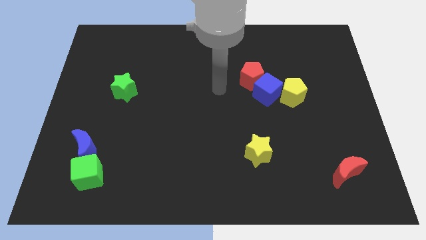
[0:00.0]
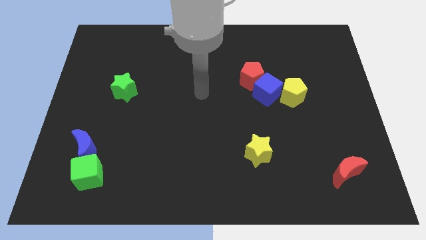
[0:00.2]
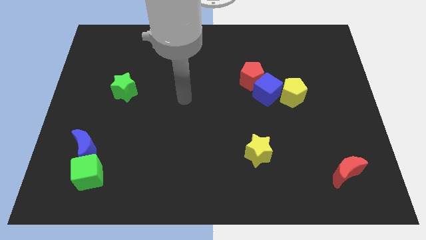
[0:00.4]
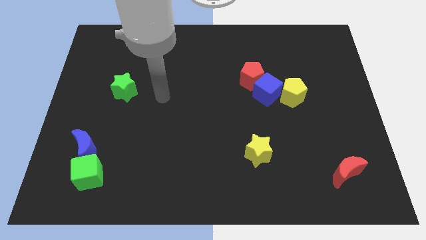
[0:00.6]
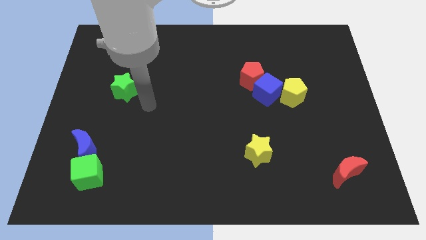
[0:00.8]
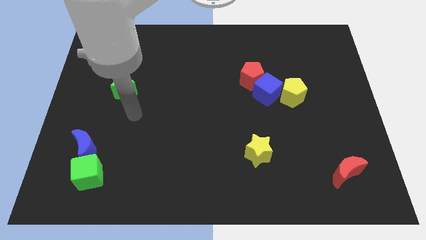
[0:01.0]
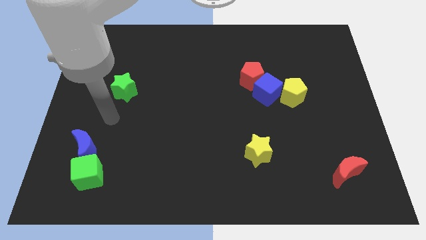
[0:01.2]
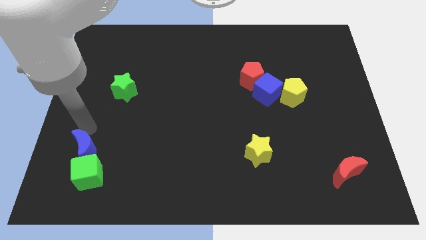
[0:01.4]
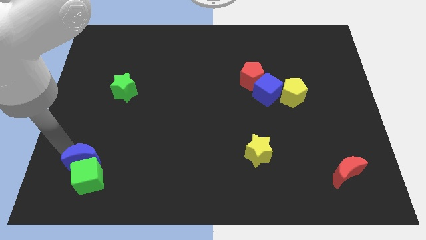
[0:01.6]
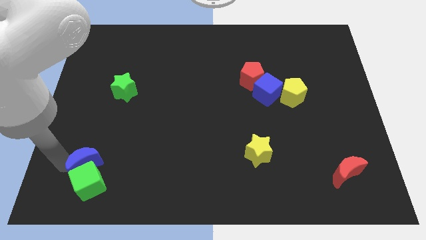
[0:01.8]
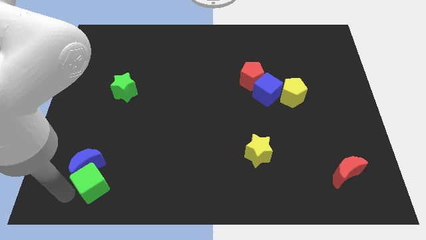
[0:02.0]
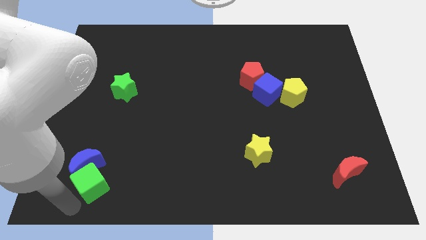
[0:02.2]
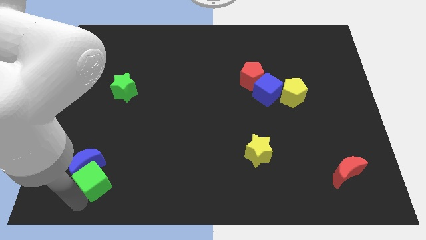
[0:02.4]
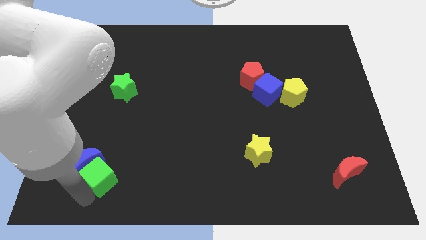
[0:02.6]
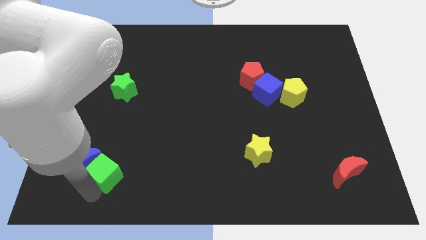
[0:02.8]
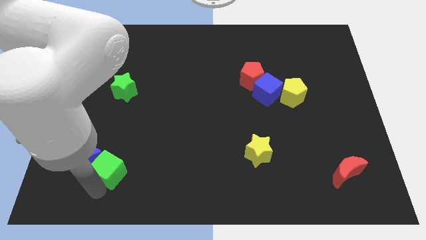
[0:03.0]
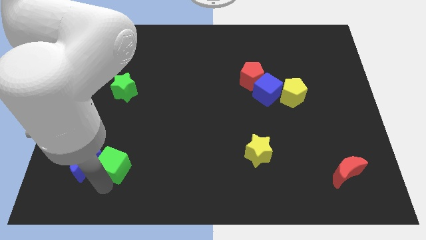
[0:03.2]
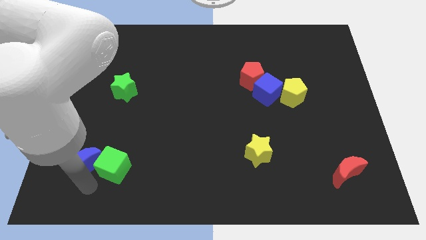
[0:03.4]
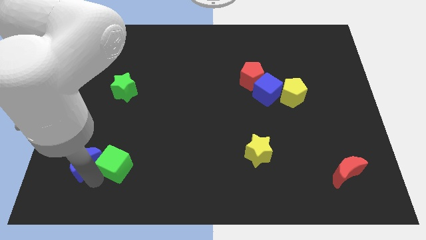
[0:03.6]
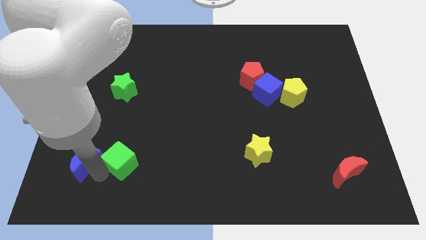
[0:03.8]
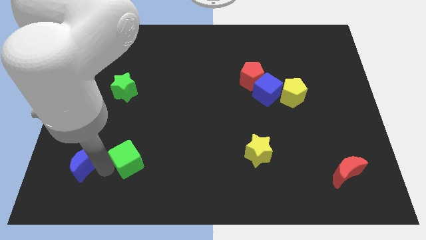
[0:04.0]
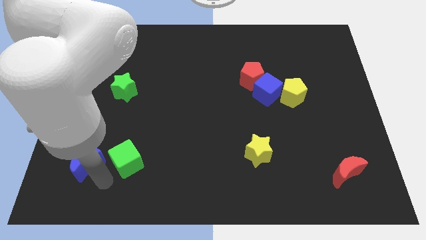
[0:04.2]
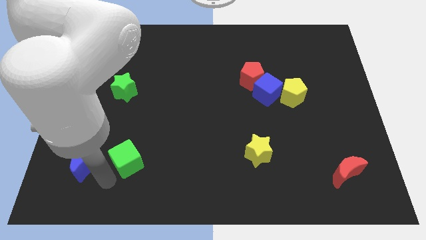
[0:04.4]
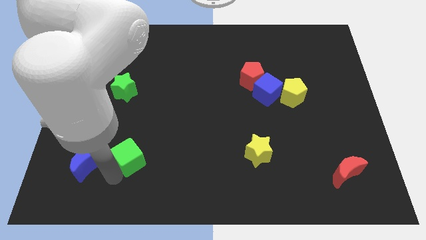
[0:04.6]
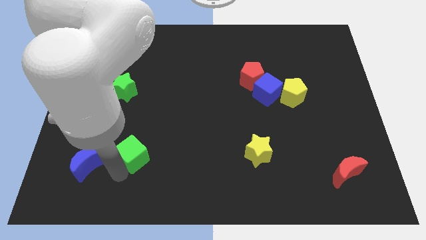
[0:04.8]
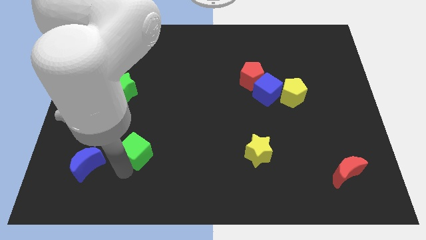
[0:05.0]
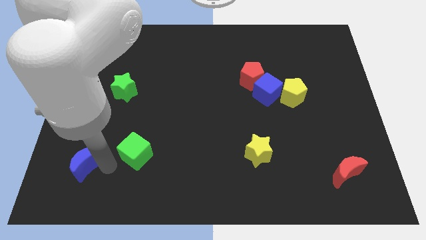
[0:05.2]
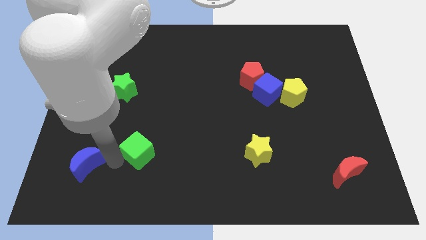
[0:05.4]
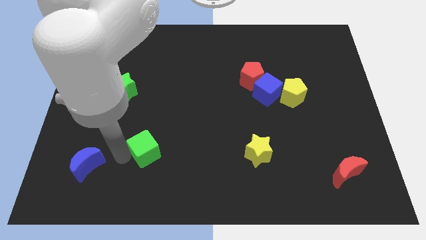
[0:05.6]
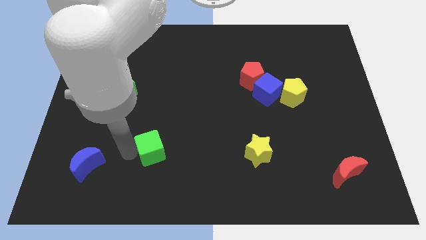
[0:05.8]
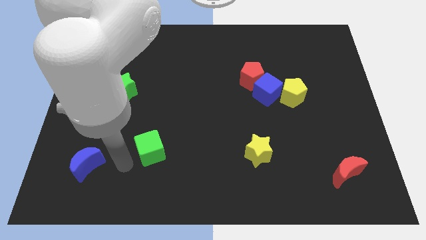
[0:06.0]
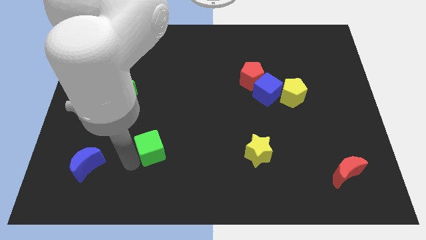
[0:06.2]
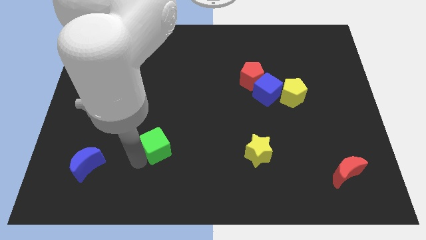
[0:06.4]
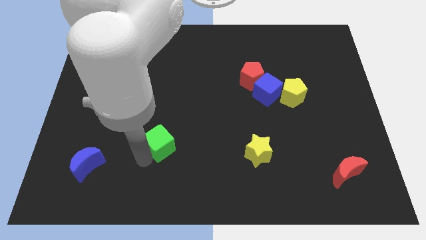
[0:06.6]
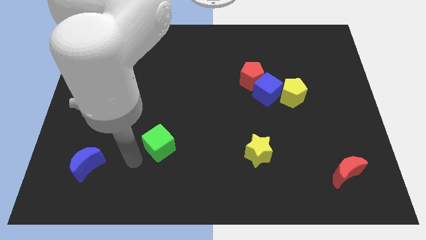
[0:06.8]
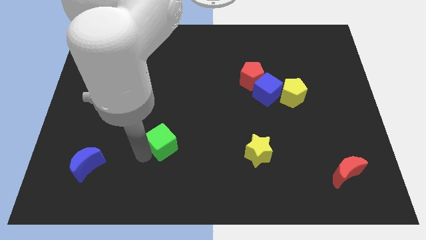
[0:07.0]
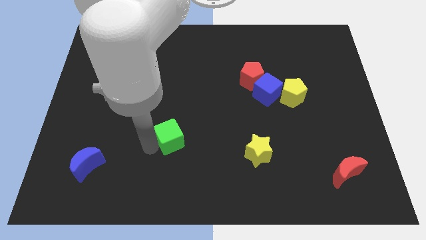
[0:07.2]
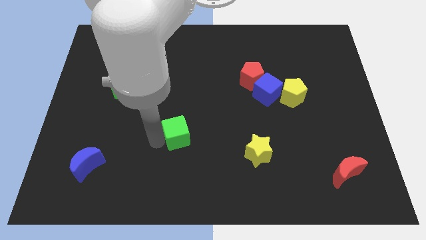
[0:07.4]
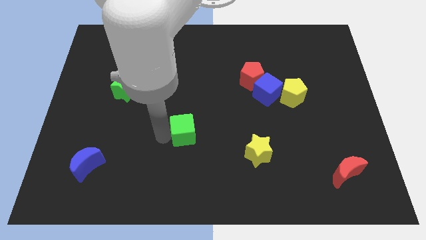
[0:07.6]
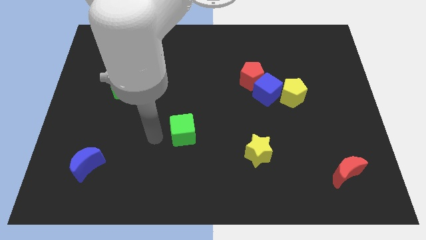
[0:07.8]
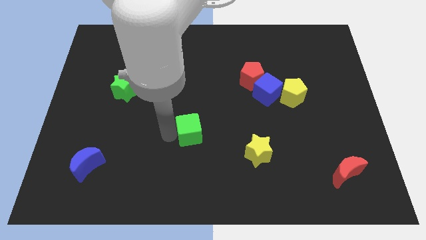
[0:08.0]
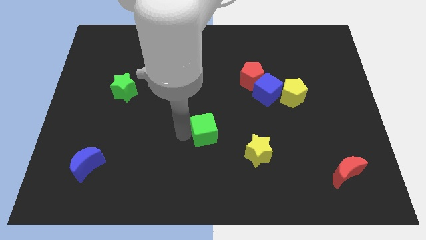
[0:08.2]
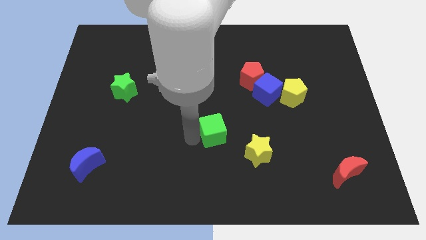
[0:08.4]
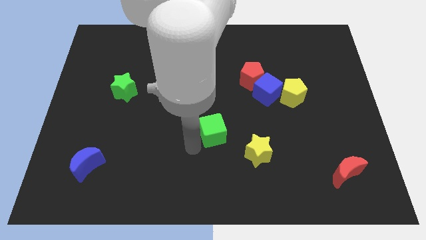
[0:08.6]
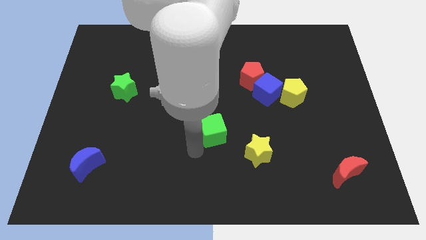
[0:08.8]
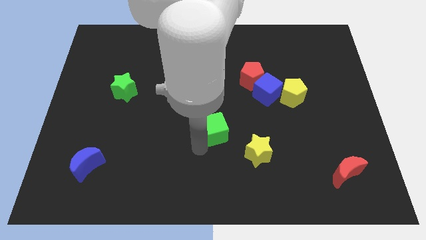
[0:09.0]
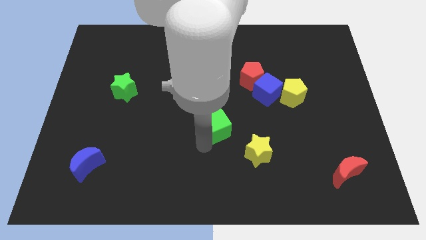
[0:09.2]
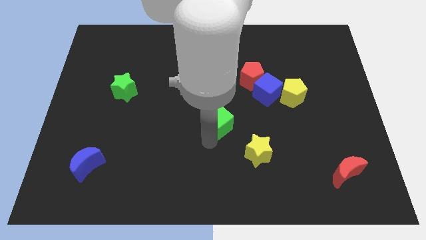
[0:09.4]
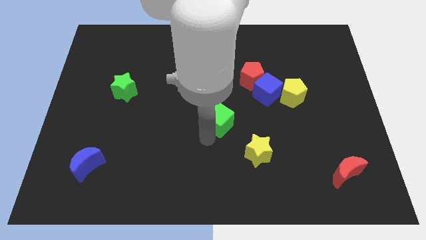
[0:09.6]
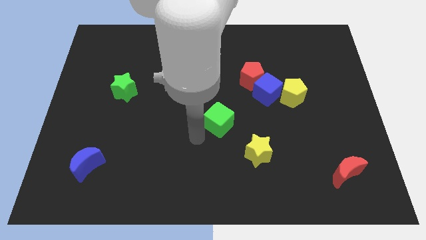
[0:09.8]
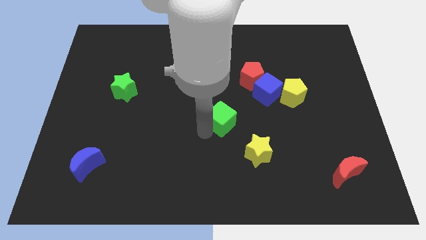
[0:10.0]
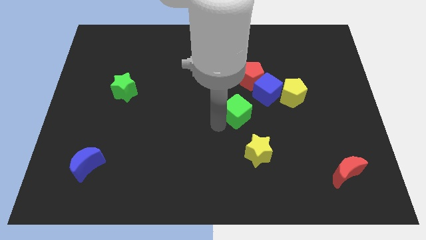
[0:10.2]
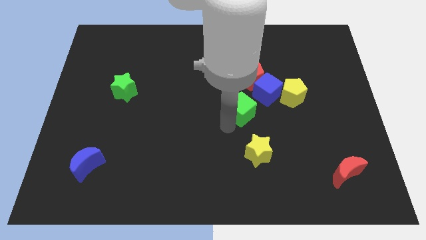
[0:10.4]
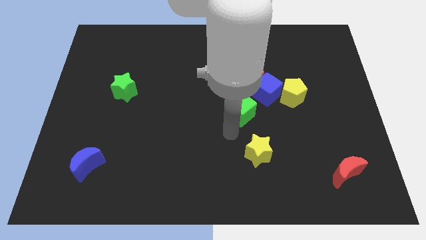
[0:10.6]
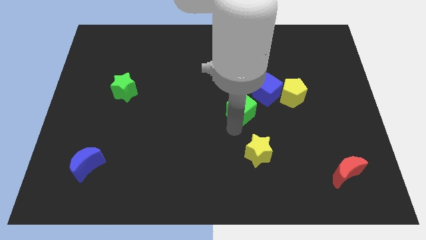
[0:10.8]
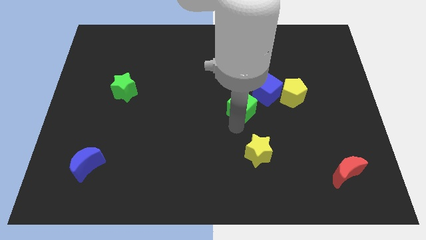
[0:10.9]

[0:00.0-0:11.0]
slide the green cube left of the yellow pentagon
